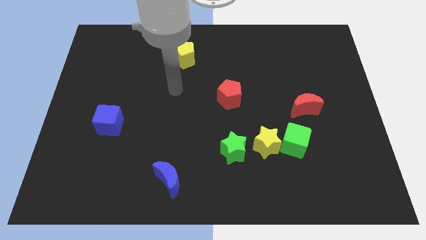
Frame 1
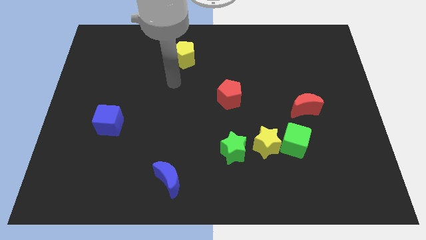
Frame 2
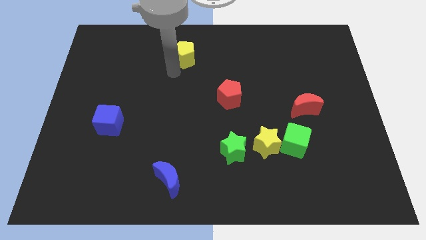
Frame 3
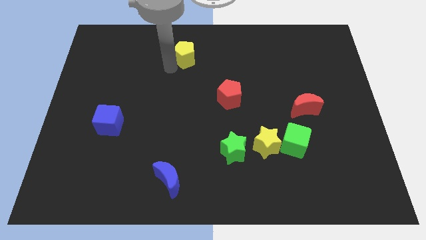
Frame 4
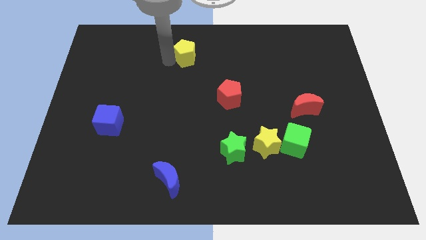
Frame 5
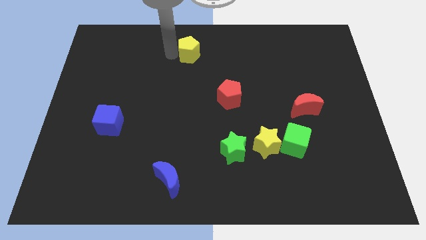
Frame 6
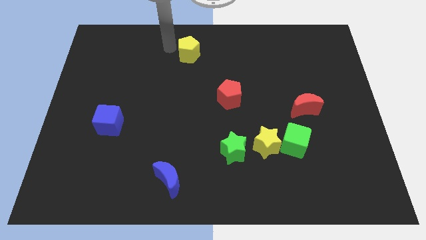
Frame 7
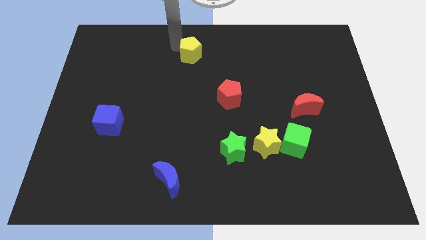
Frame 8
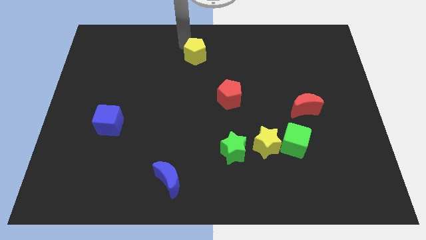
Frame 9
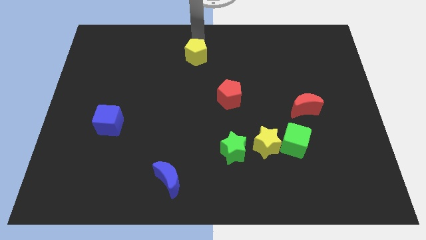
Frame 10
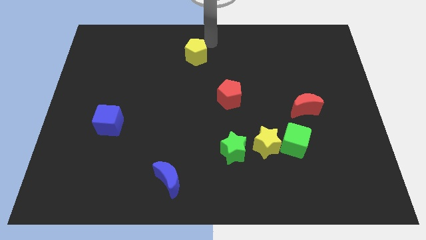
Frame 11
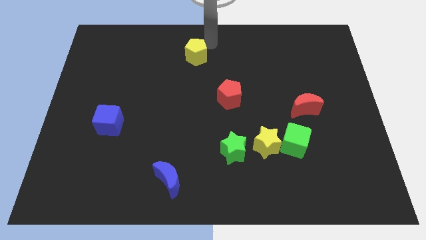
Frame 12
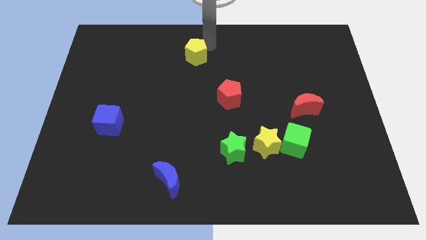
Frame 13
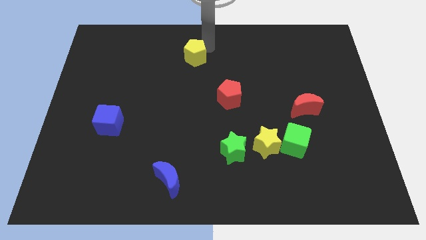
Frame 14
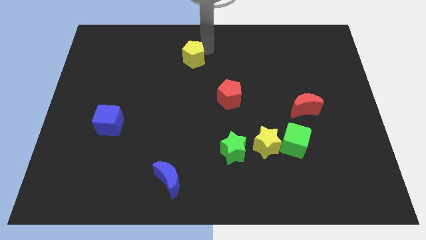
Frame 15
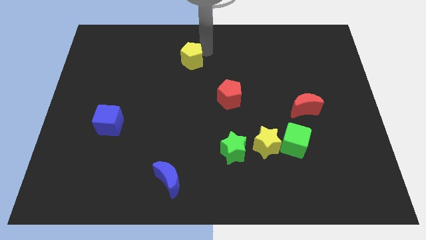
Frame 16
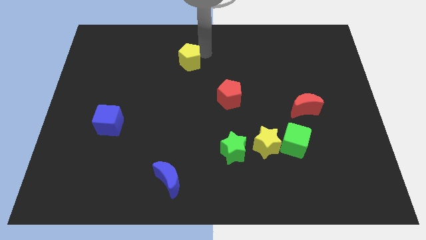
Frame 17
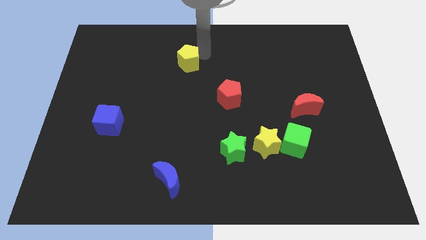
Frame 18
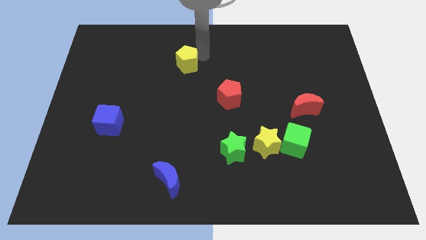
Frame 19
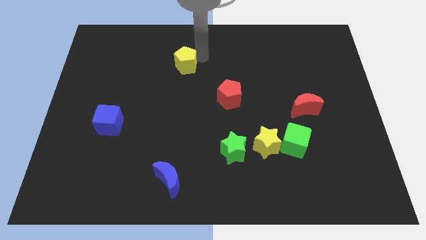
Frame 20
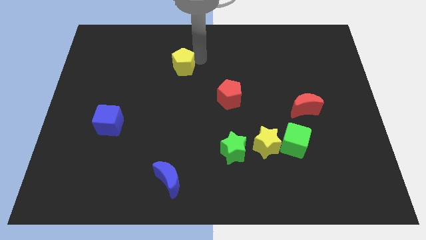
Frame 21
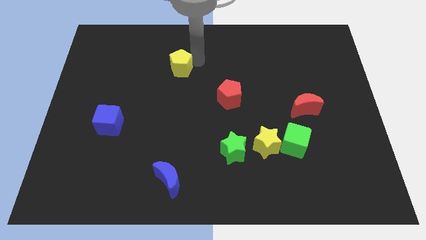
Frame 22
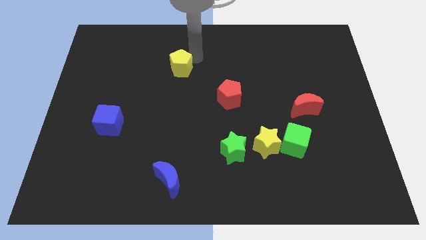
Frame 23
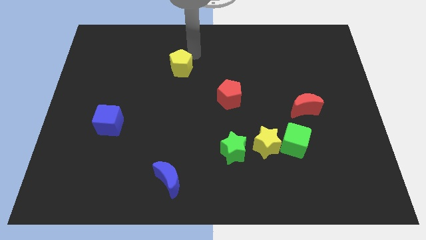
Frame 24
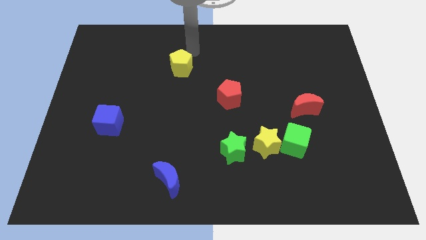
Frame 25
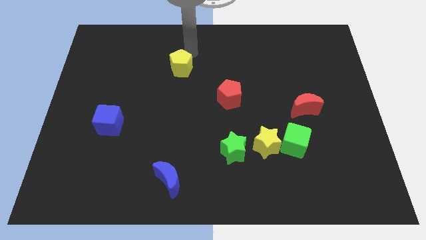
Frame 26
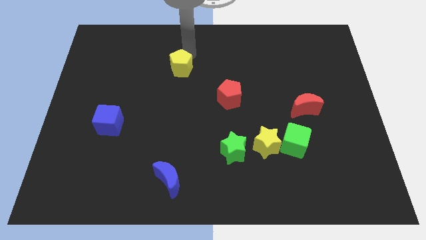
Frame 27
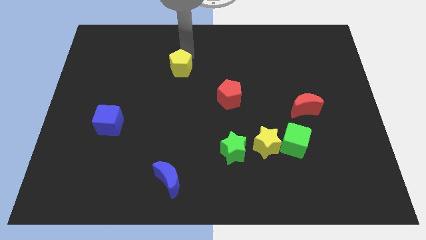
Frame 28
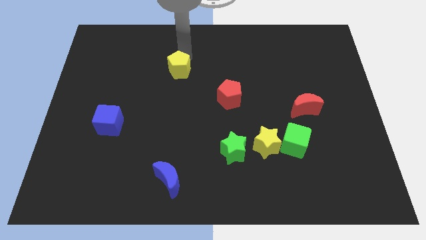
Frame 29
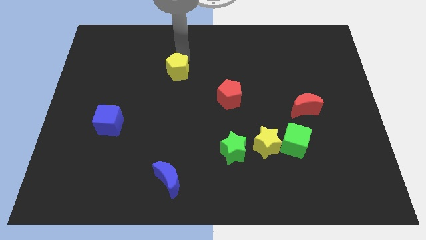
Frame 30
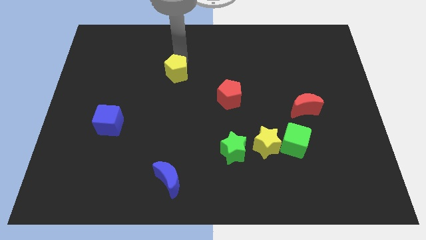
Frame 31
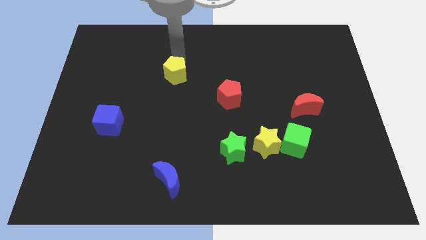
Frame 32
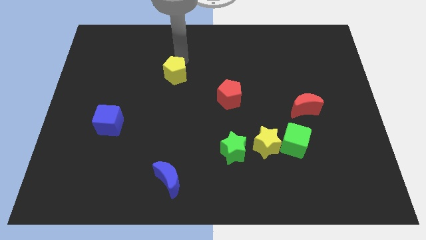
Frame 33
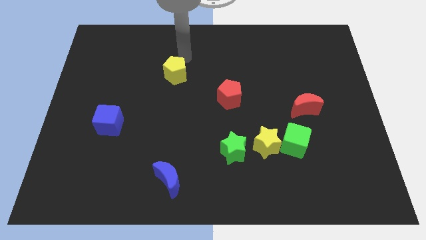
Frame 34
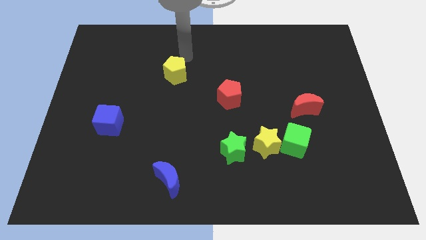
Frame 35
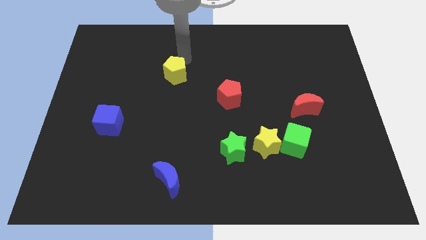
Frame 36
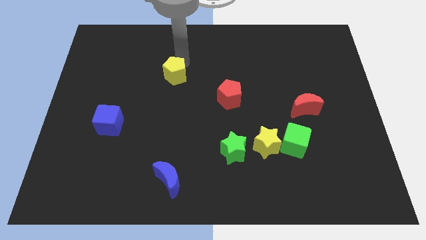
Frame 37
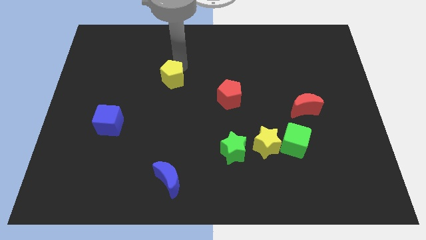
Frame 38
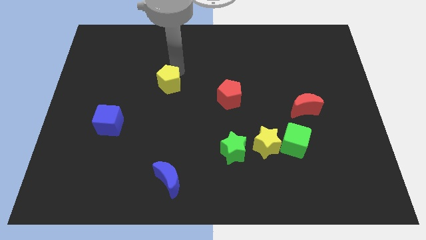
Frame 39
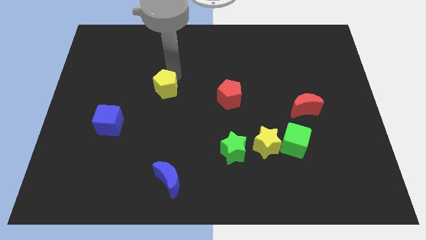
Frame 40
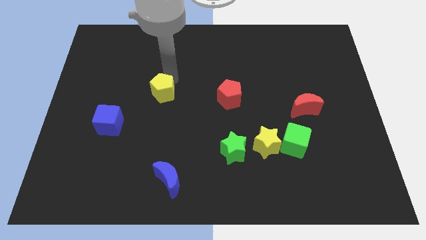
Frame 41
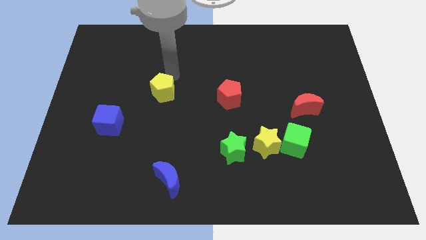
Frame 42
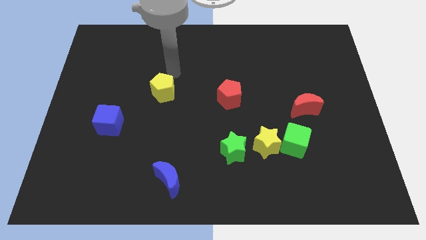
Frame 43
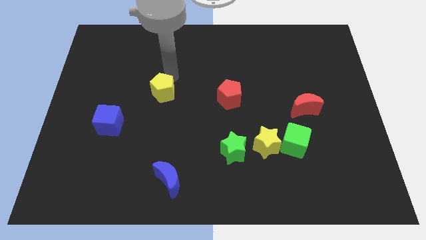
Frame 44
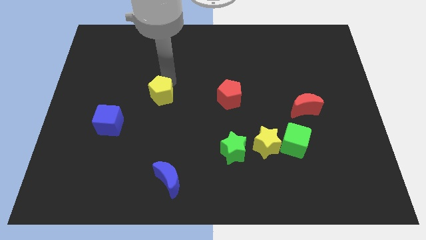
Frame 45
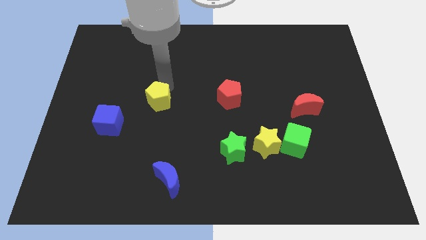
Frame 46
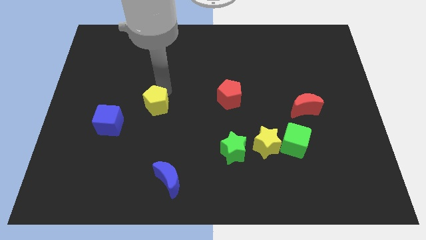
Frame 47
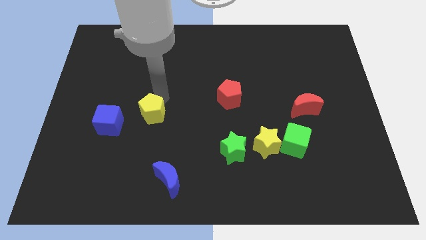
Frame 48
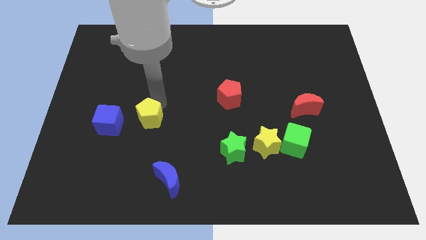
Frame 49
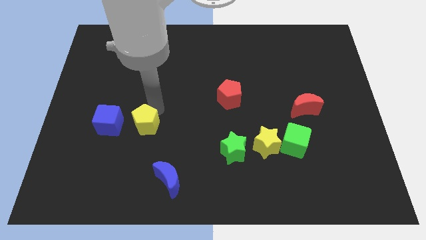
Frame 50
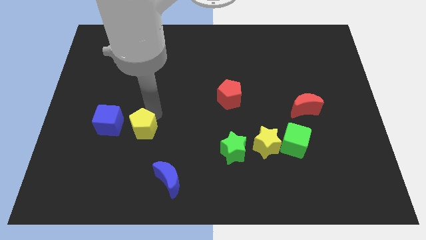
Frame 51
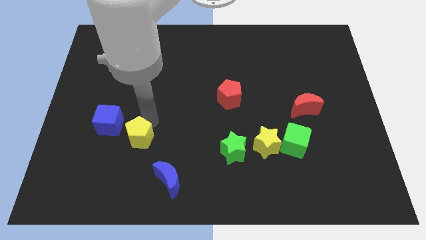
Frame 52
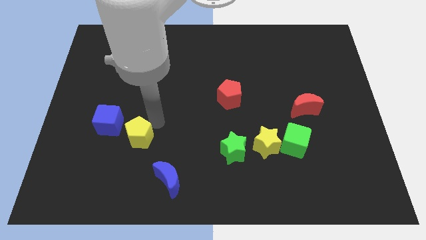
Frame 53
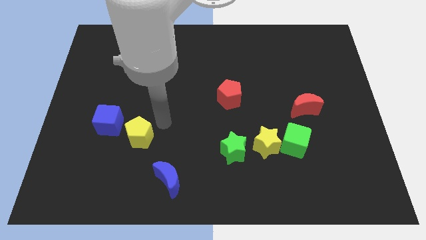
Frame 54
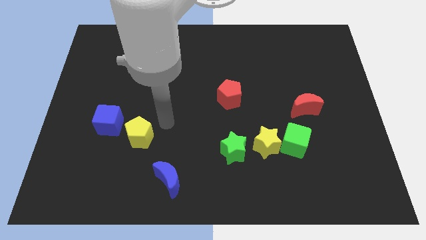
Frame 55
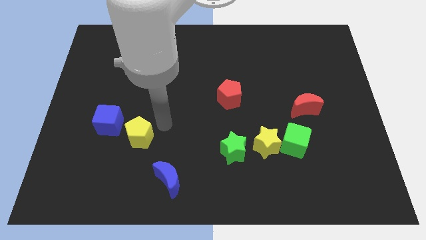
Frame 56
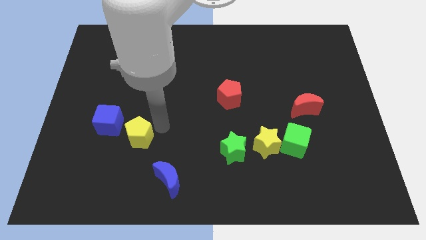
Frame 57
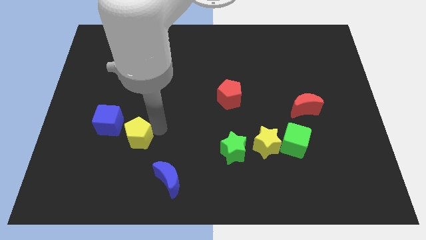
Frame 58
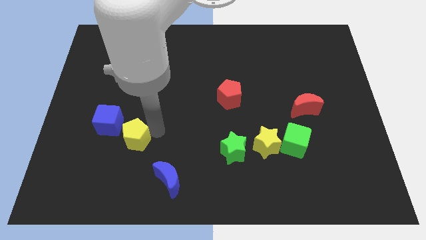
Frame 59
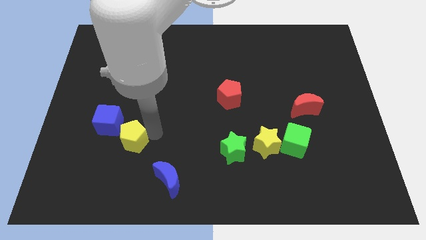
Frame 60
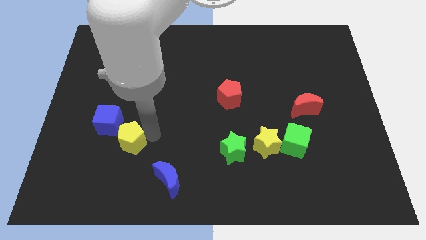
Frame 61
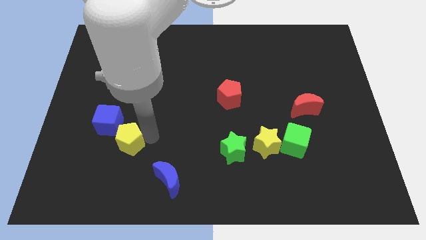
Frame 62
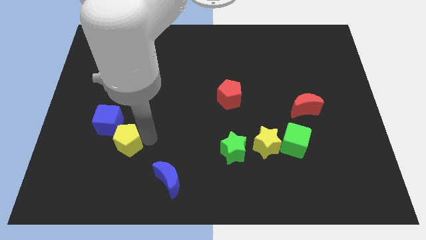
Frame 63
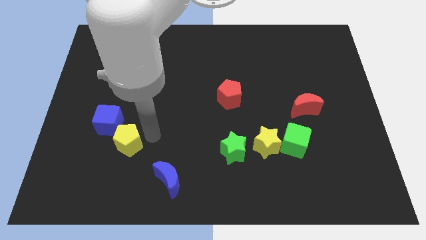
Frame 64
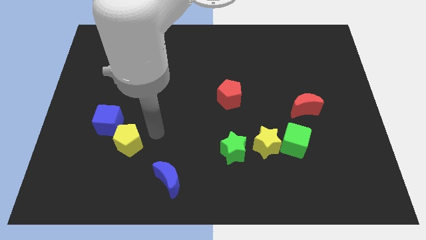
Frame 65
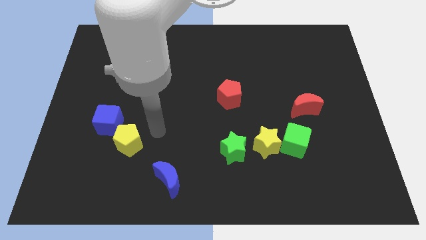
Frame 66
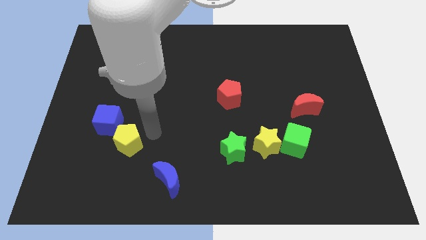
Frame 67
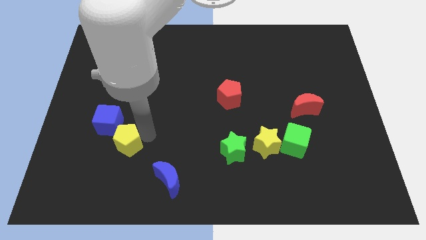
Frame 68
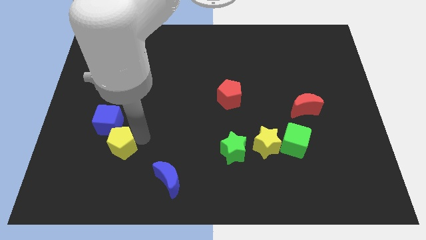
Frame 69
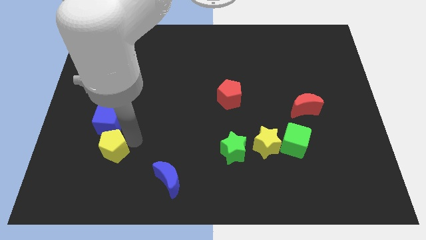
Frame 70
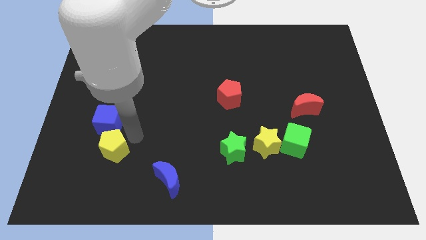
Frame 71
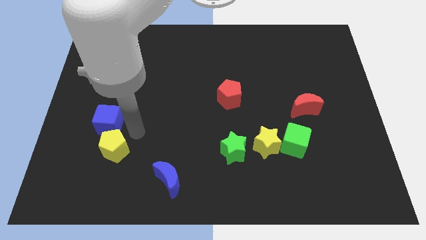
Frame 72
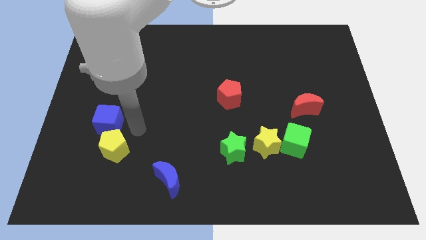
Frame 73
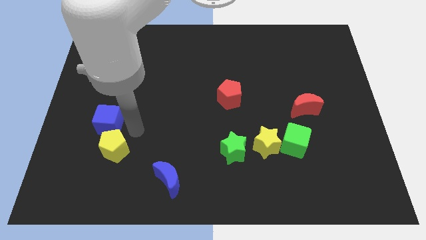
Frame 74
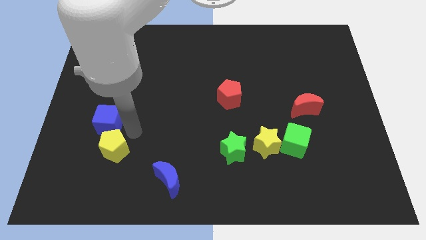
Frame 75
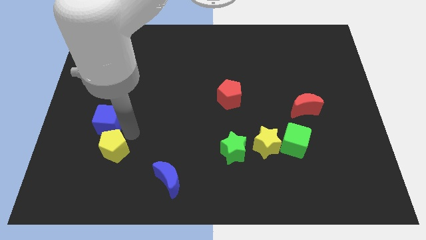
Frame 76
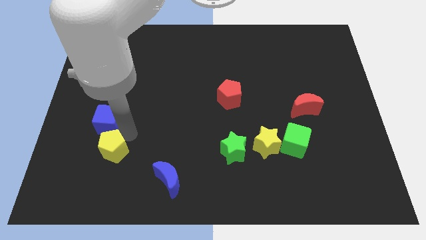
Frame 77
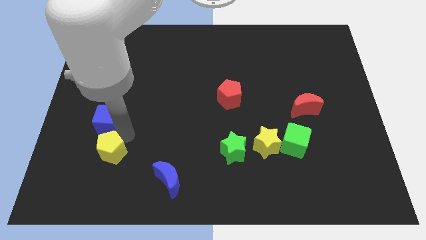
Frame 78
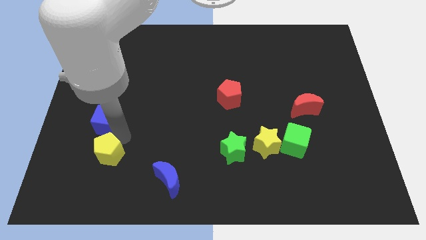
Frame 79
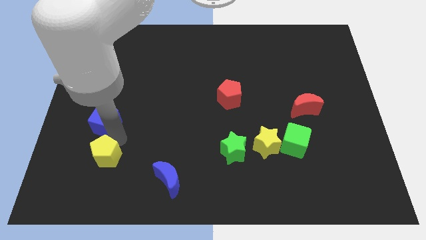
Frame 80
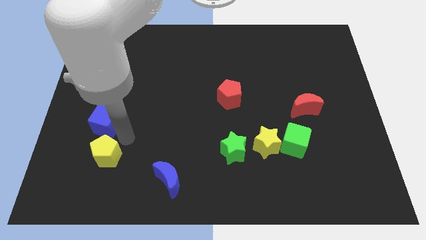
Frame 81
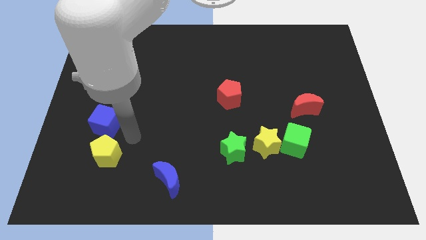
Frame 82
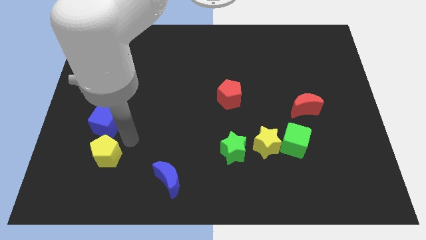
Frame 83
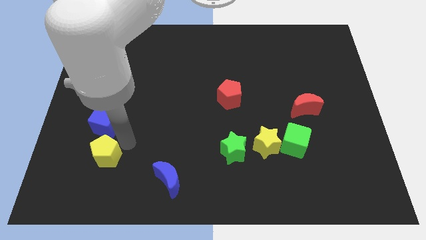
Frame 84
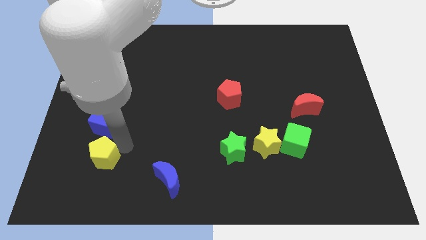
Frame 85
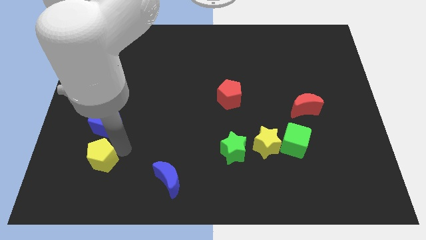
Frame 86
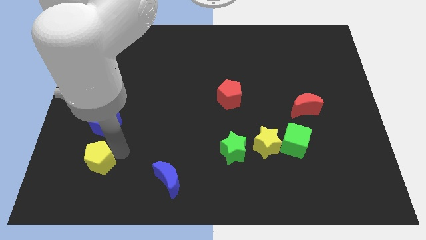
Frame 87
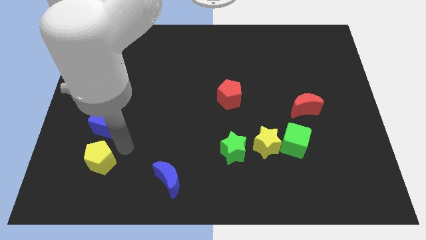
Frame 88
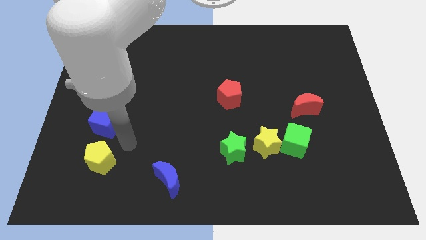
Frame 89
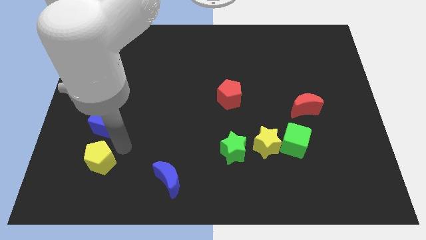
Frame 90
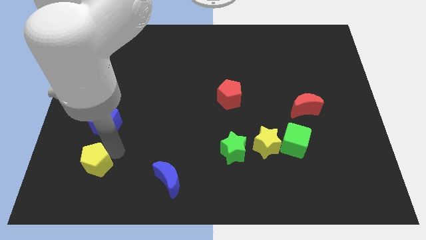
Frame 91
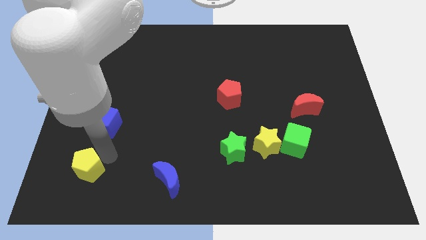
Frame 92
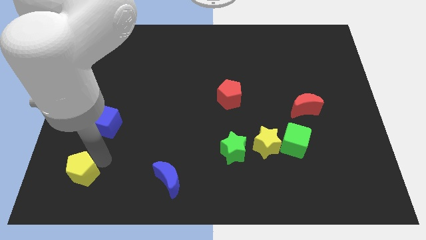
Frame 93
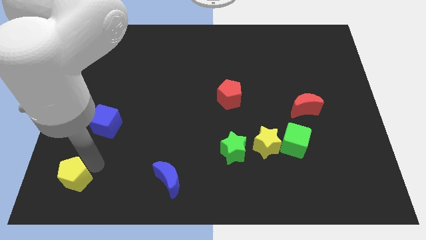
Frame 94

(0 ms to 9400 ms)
push the yellow pentagon to the bottom left
